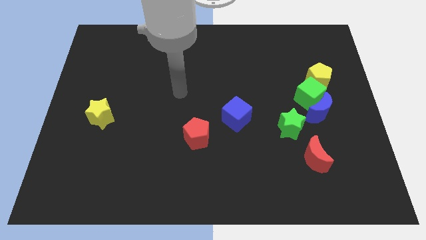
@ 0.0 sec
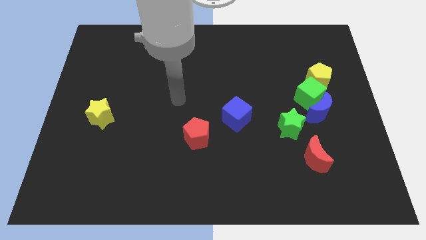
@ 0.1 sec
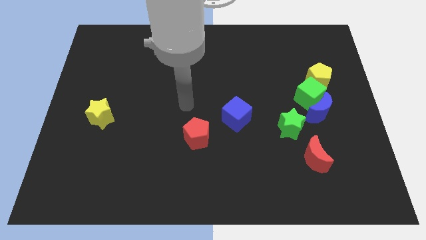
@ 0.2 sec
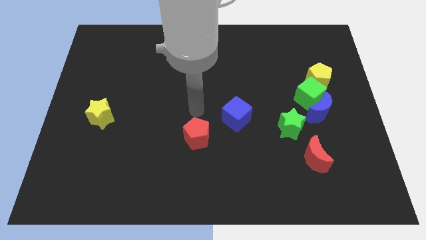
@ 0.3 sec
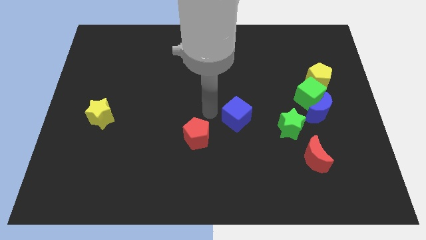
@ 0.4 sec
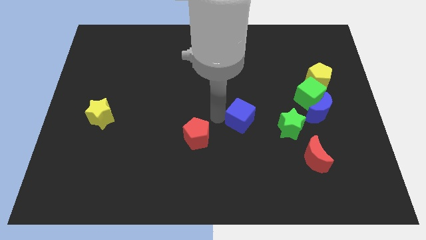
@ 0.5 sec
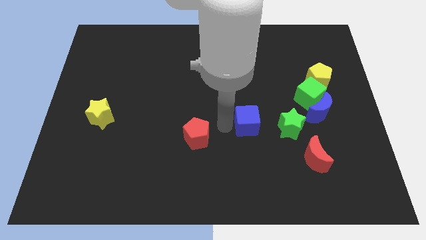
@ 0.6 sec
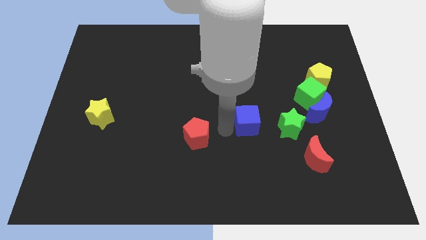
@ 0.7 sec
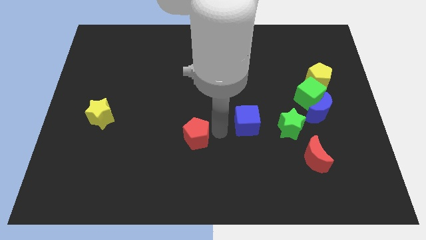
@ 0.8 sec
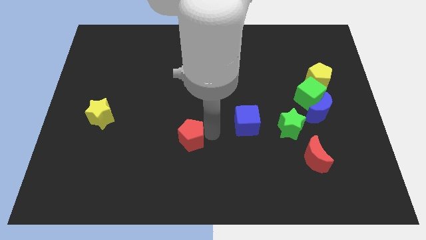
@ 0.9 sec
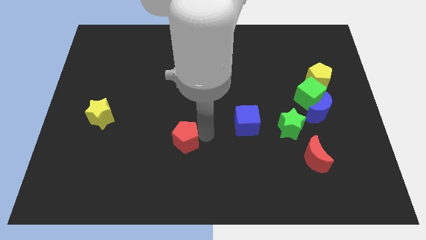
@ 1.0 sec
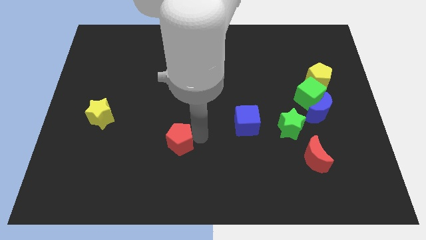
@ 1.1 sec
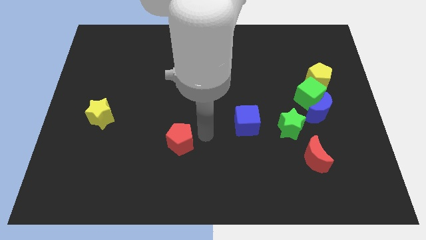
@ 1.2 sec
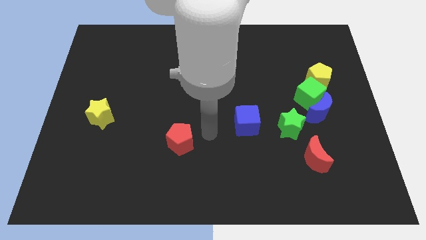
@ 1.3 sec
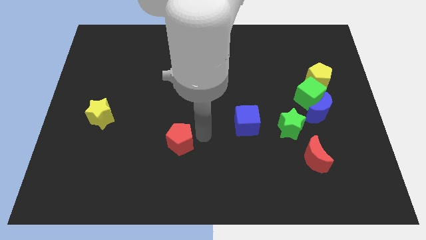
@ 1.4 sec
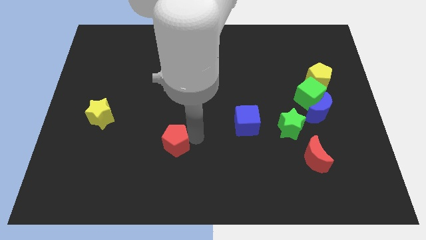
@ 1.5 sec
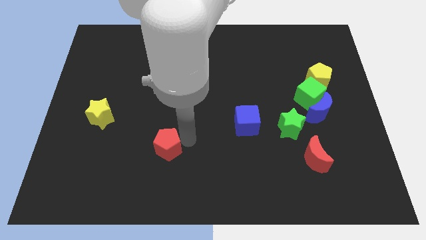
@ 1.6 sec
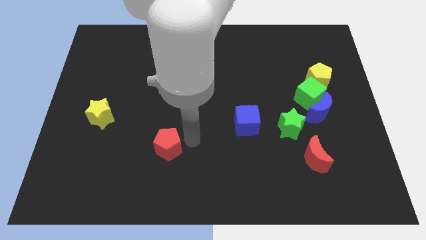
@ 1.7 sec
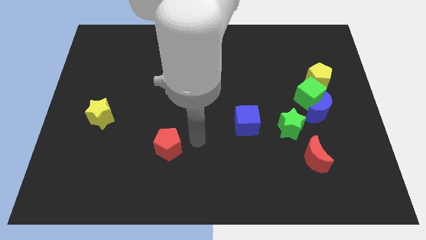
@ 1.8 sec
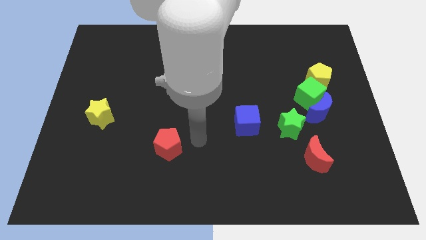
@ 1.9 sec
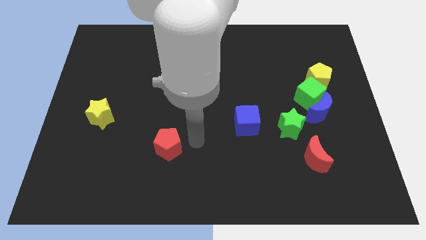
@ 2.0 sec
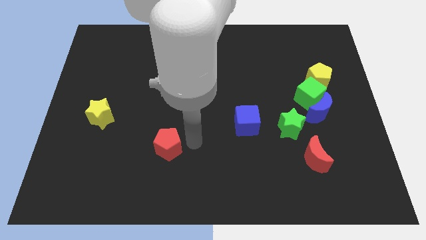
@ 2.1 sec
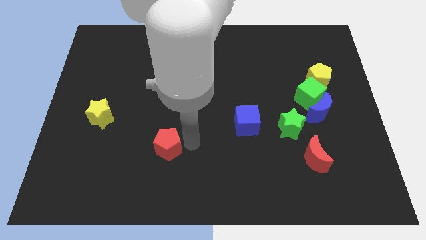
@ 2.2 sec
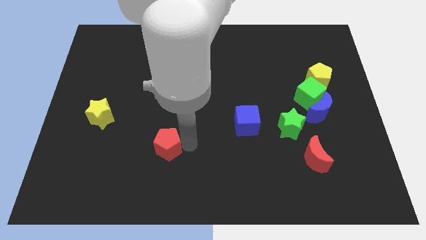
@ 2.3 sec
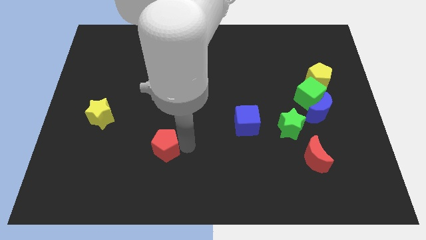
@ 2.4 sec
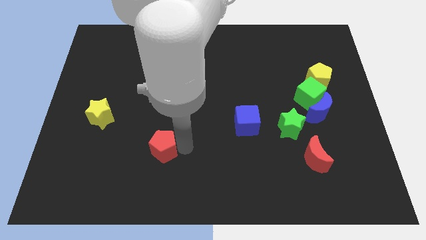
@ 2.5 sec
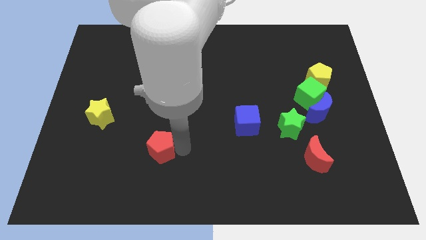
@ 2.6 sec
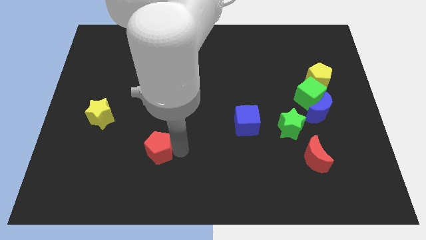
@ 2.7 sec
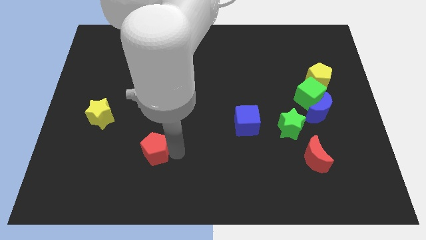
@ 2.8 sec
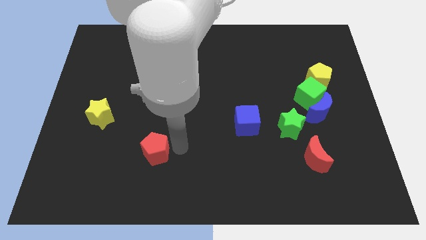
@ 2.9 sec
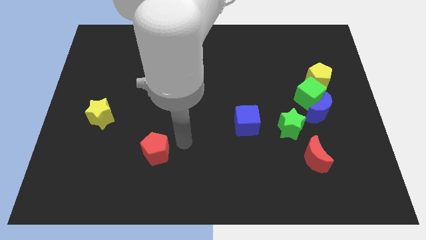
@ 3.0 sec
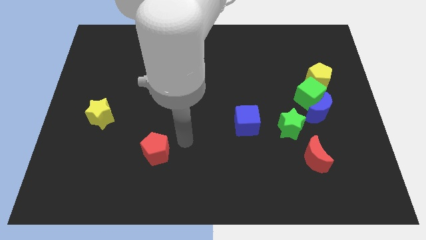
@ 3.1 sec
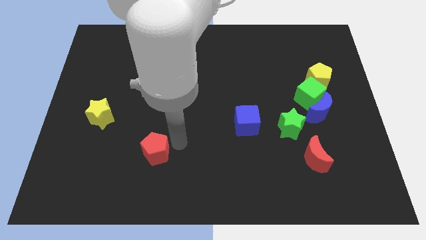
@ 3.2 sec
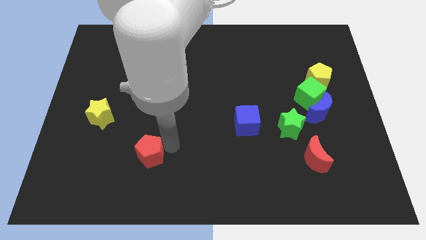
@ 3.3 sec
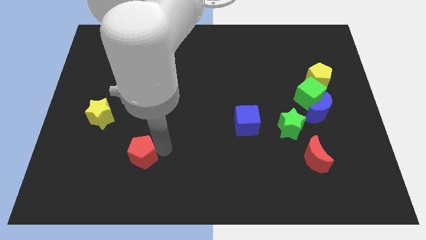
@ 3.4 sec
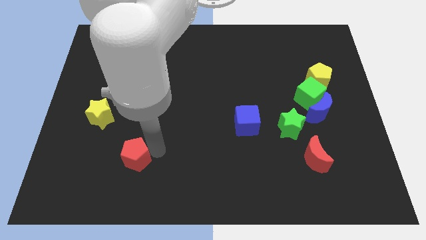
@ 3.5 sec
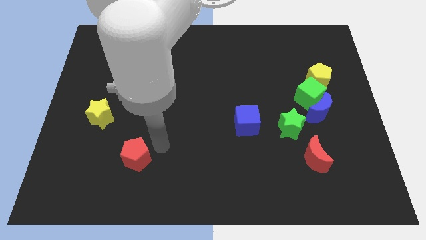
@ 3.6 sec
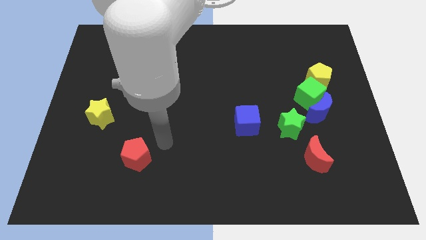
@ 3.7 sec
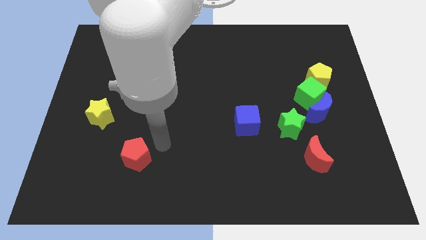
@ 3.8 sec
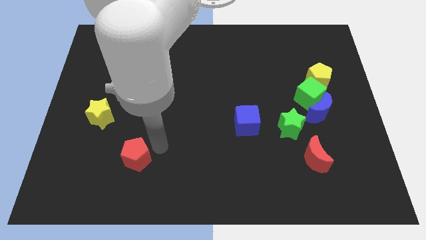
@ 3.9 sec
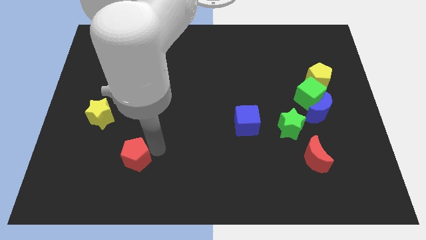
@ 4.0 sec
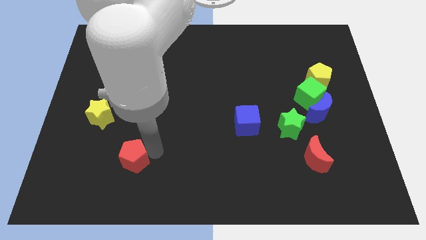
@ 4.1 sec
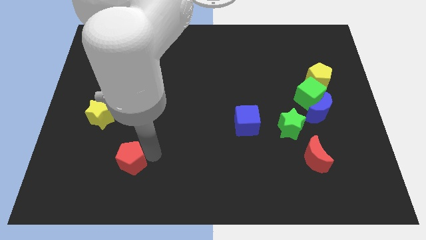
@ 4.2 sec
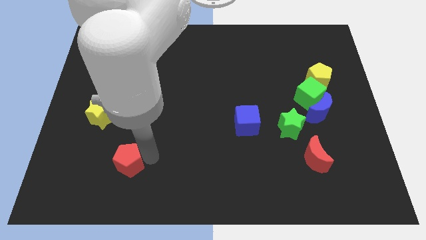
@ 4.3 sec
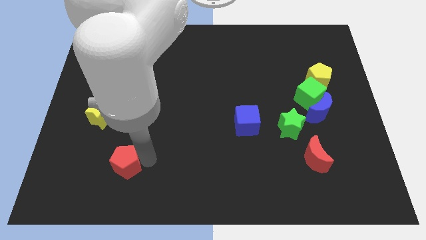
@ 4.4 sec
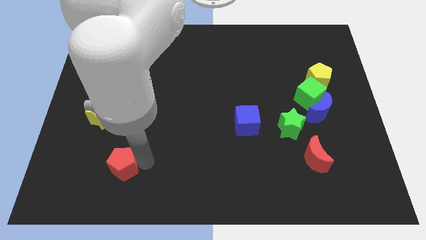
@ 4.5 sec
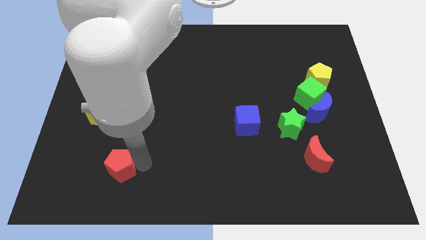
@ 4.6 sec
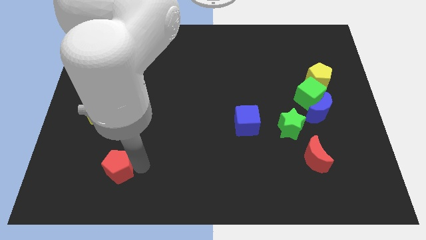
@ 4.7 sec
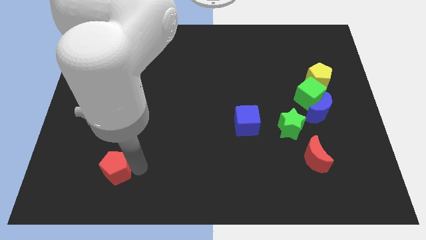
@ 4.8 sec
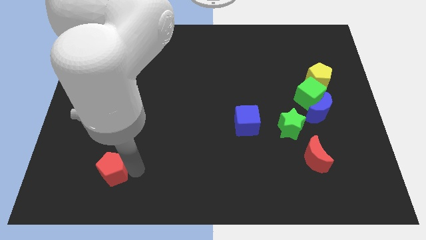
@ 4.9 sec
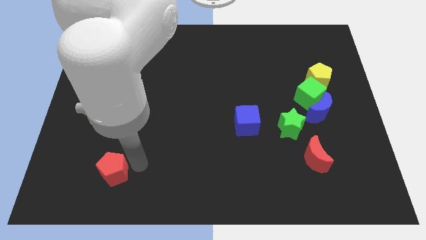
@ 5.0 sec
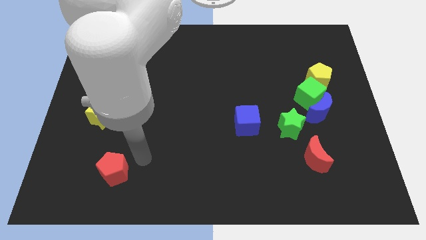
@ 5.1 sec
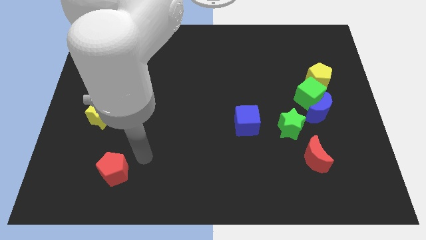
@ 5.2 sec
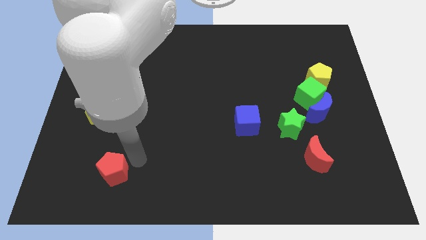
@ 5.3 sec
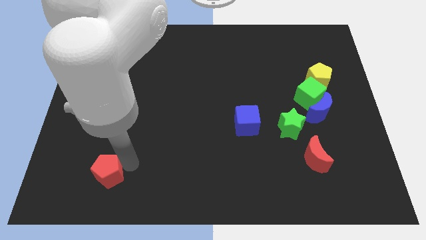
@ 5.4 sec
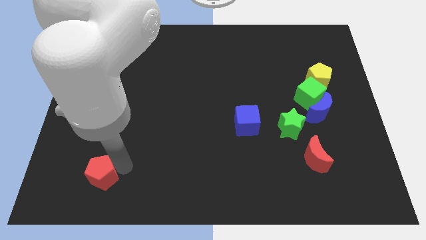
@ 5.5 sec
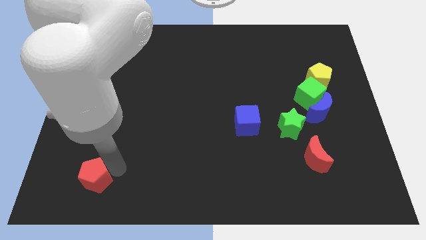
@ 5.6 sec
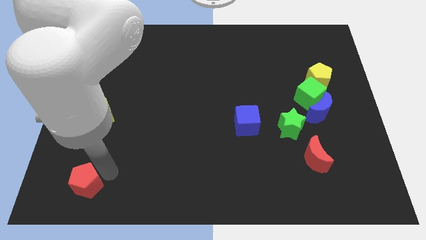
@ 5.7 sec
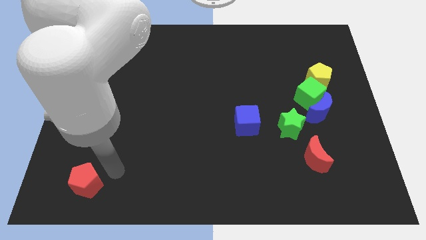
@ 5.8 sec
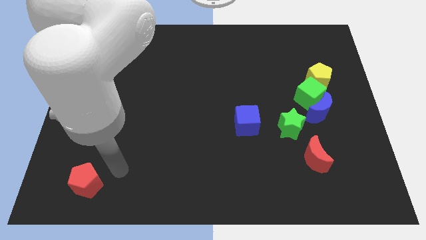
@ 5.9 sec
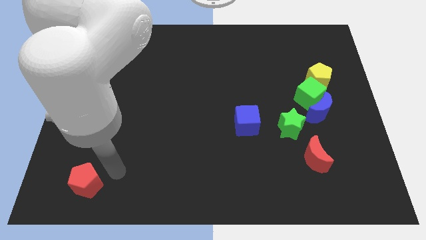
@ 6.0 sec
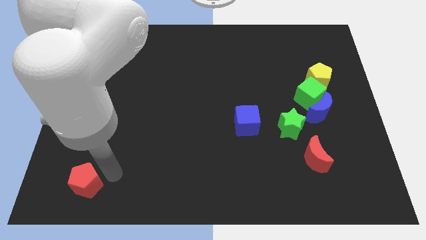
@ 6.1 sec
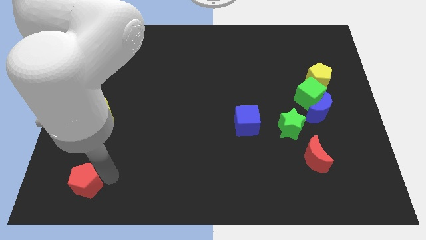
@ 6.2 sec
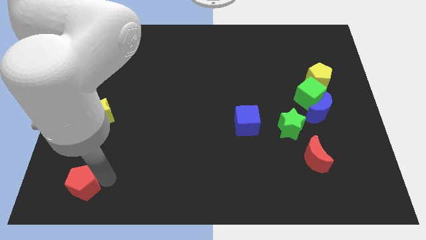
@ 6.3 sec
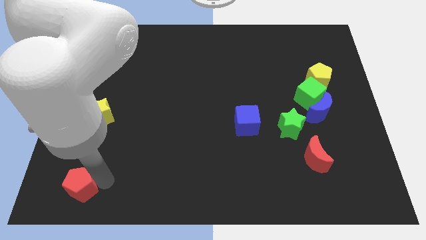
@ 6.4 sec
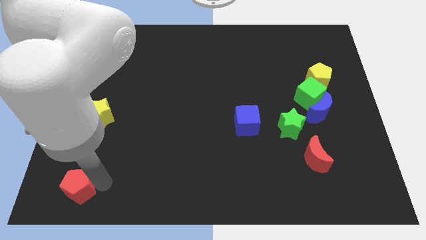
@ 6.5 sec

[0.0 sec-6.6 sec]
put the red pentagon to the bottom left
